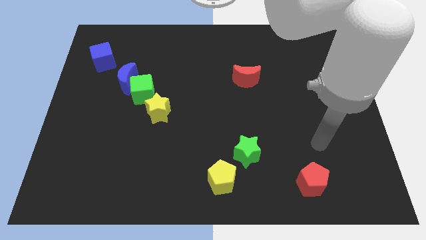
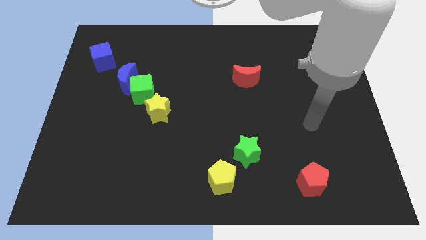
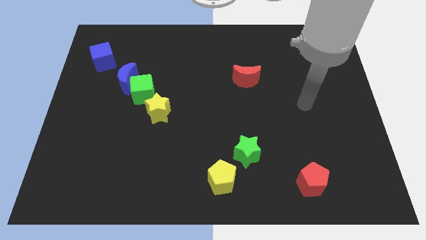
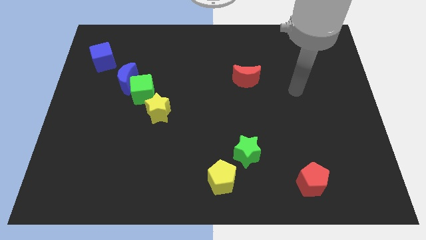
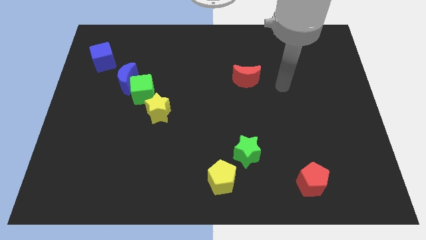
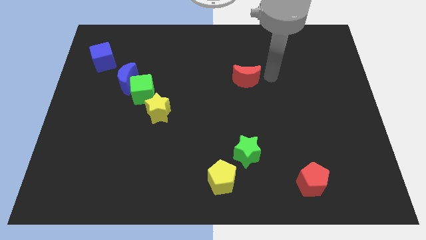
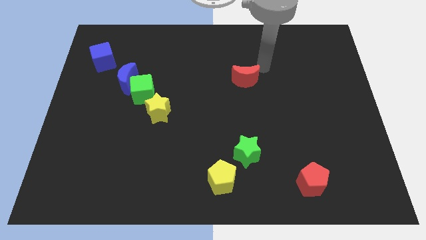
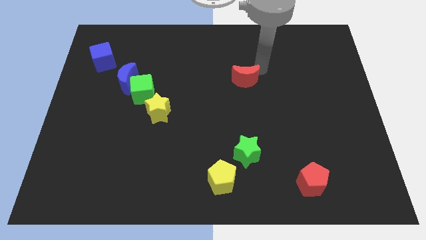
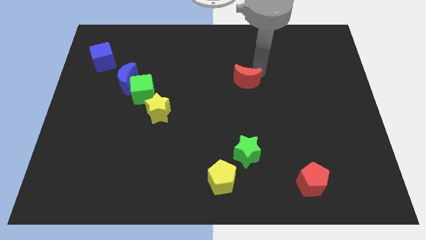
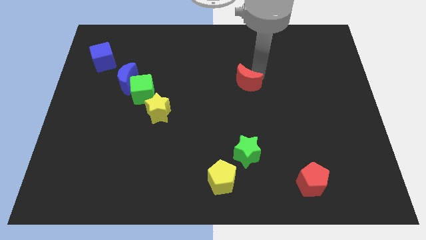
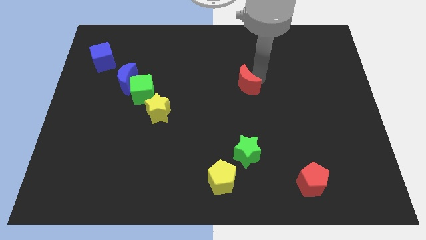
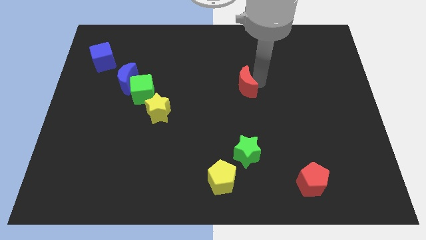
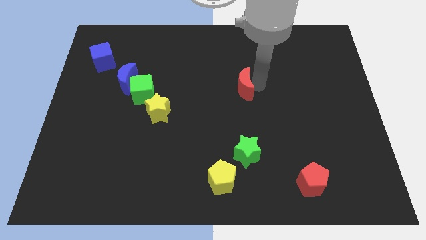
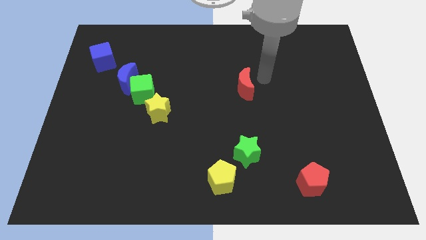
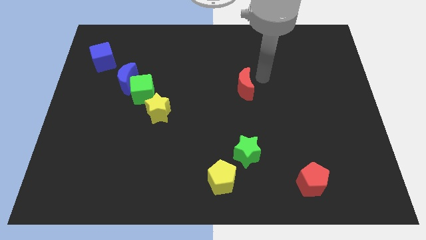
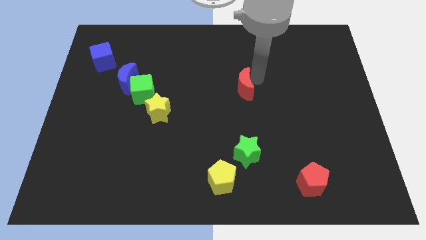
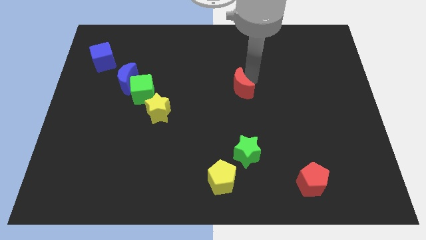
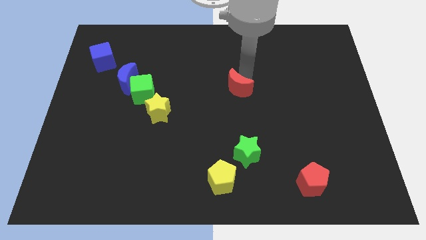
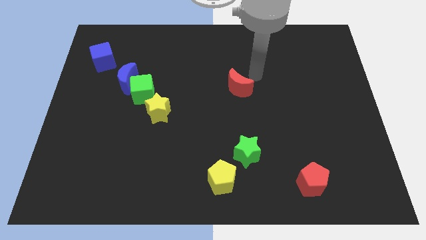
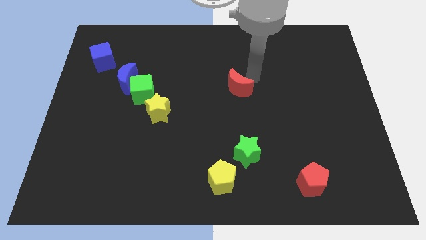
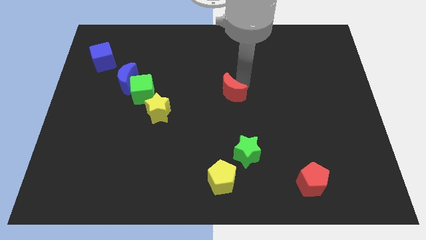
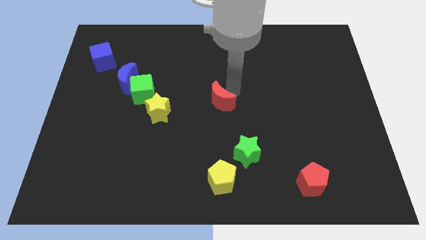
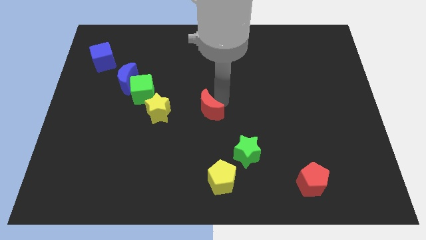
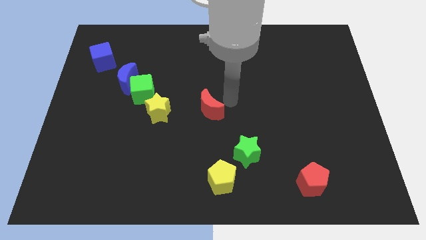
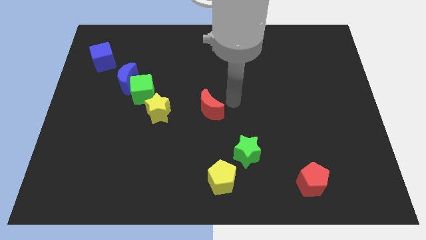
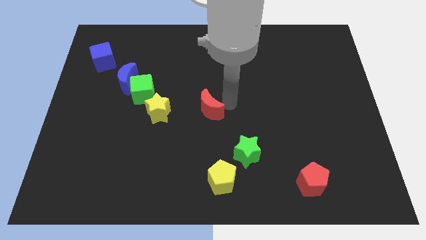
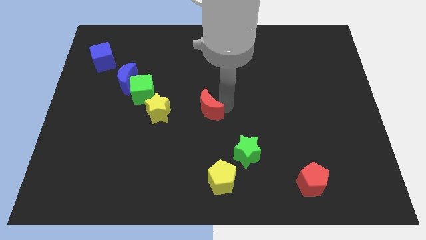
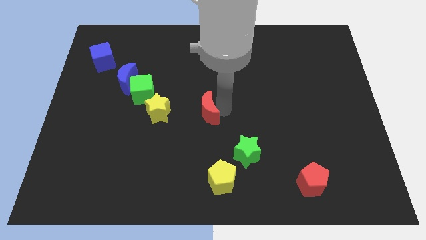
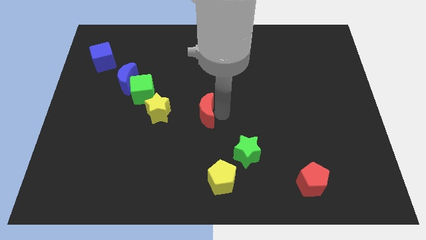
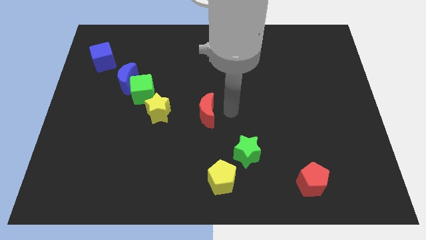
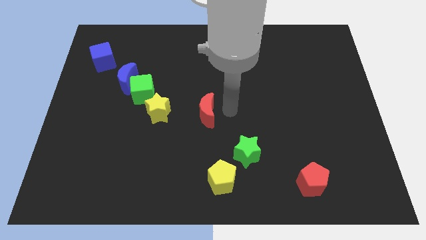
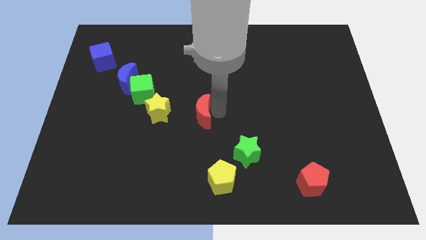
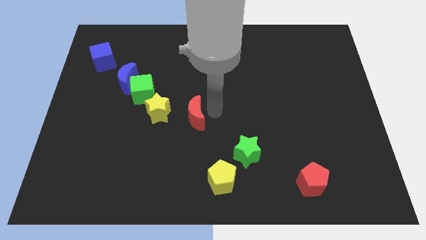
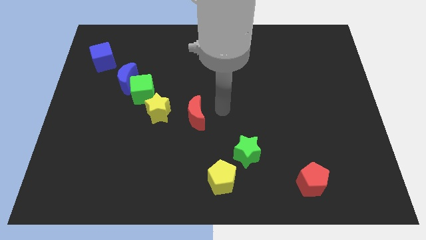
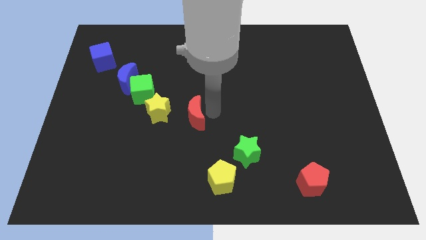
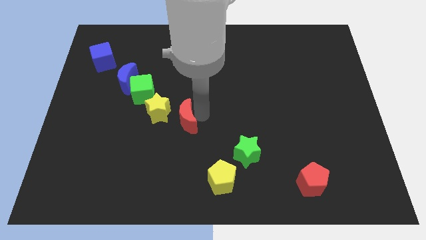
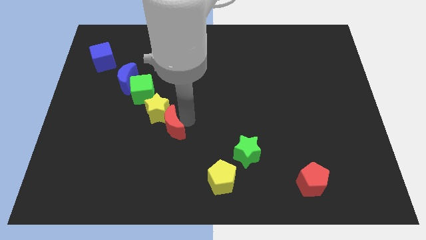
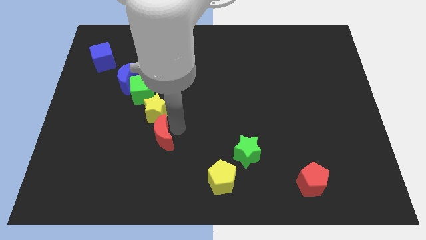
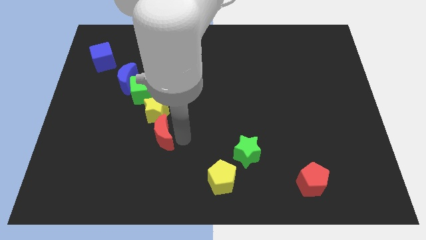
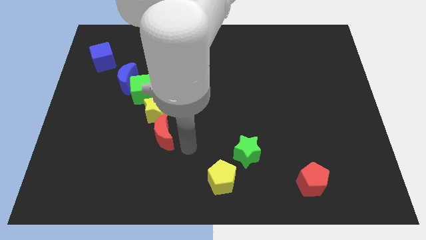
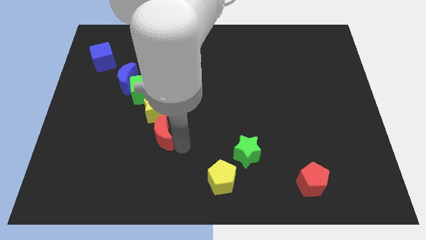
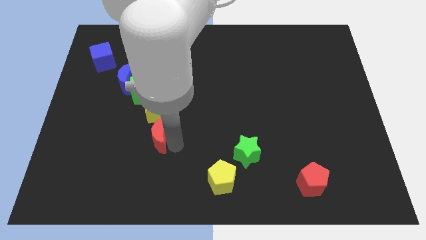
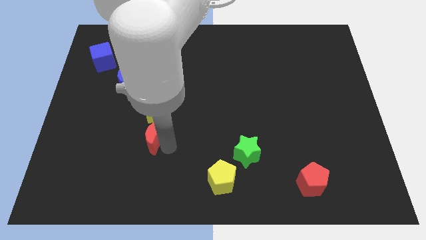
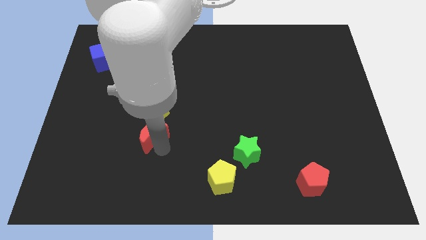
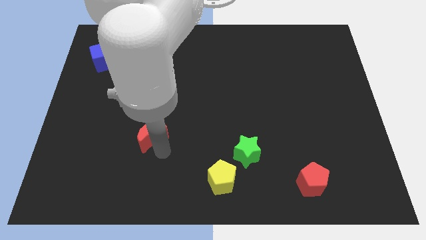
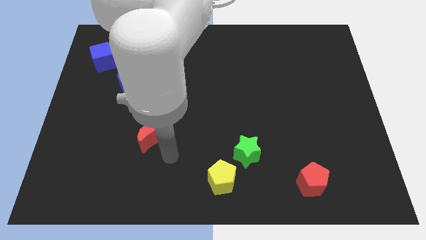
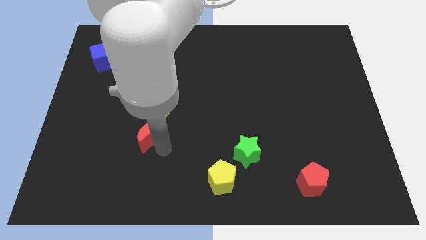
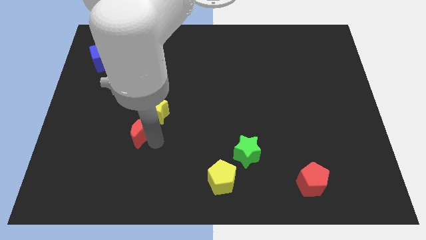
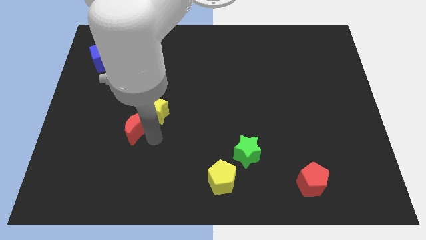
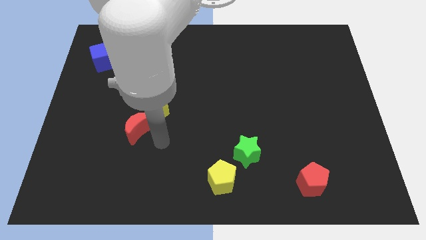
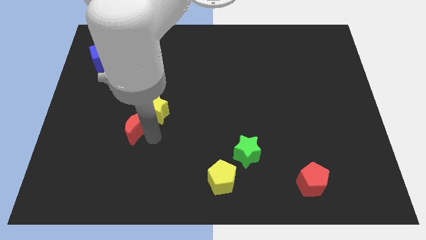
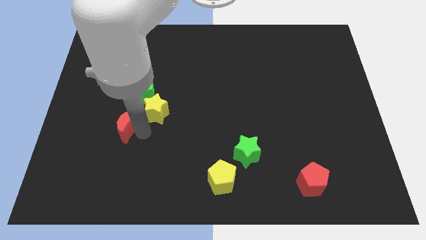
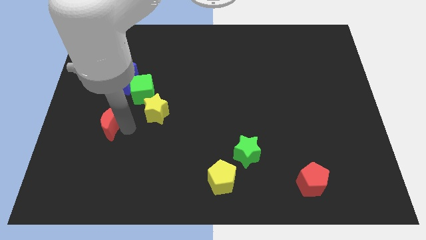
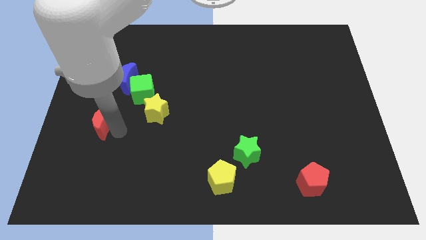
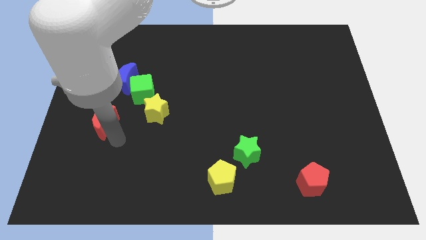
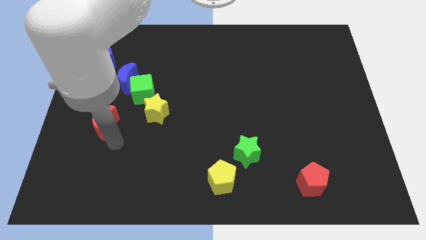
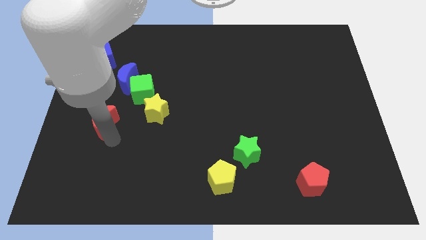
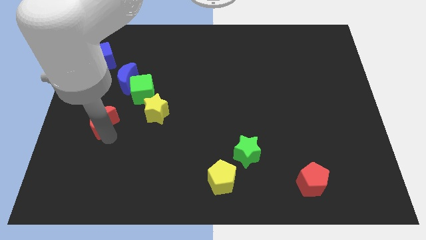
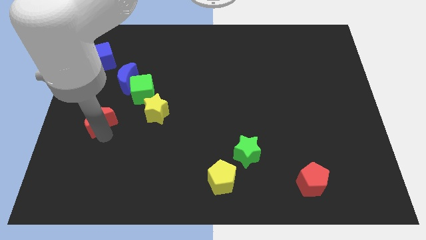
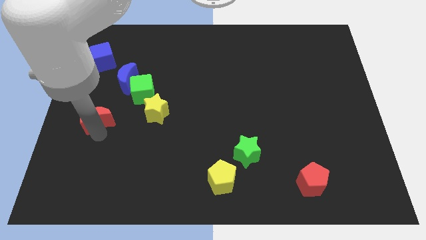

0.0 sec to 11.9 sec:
move the red moon to the left side

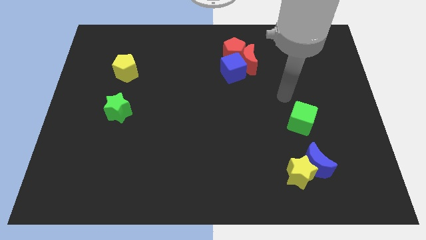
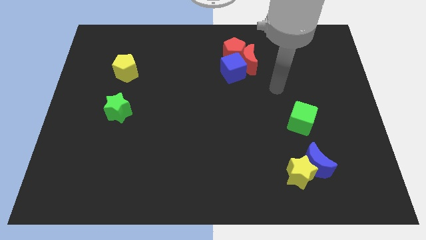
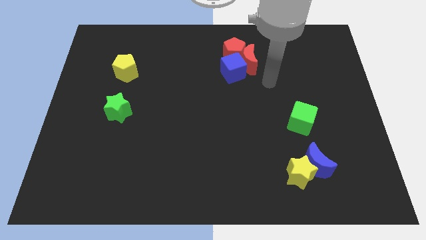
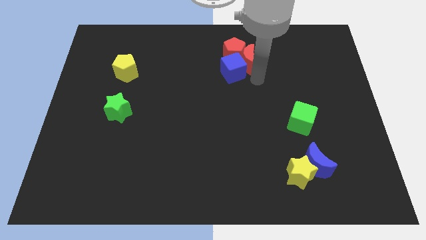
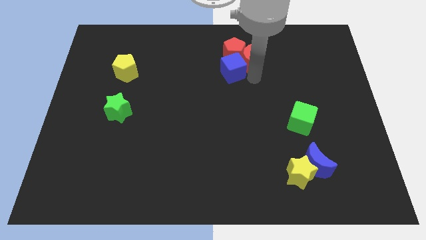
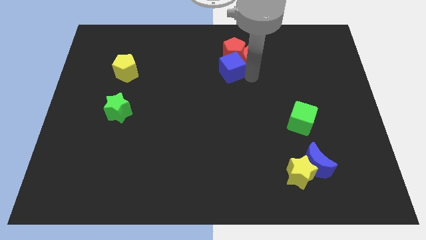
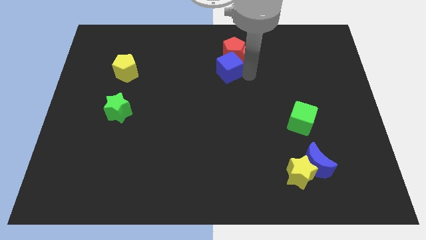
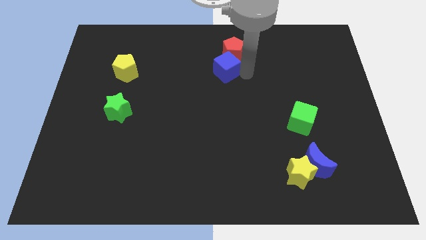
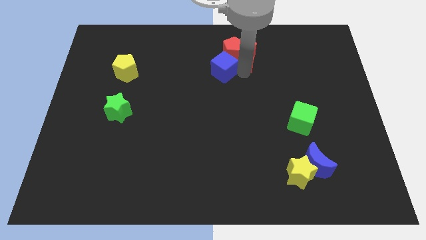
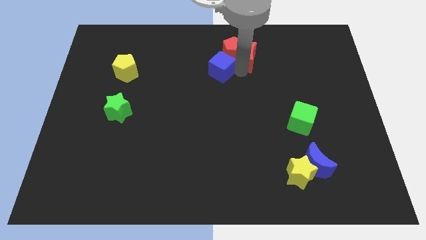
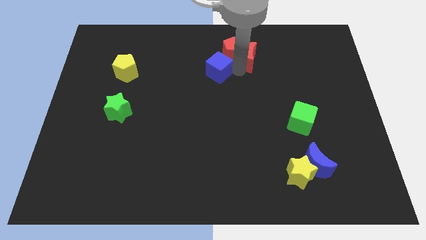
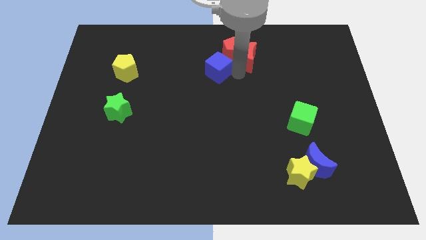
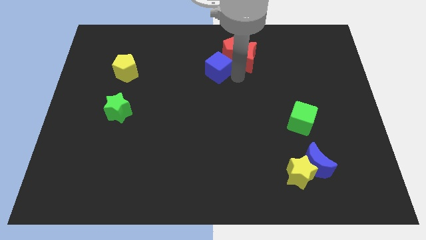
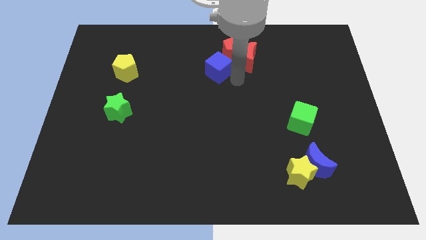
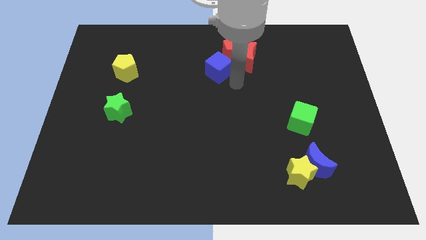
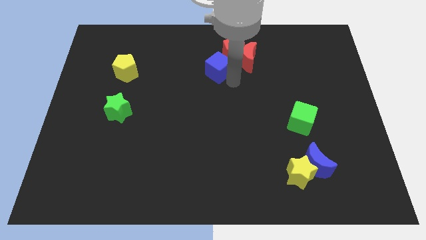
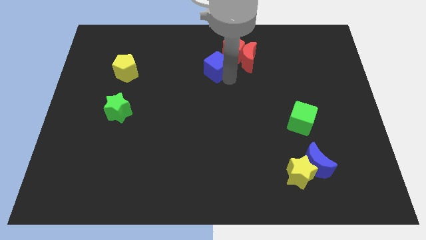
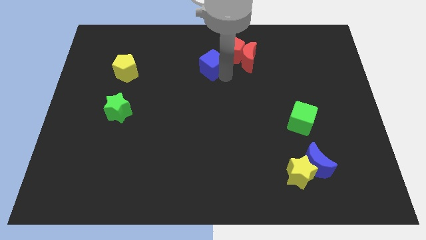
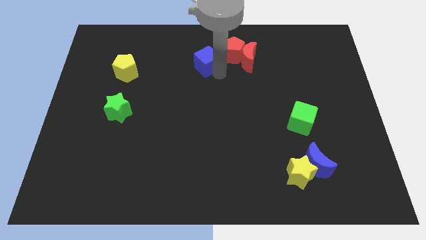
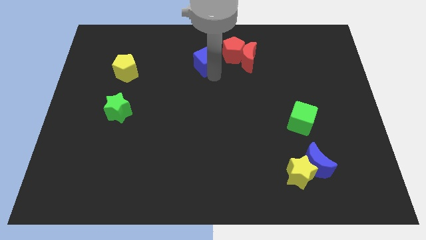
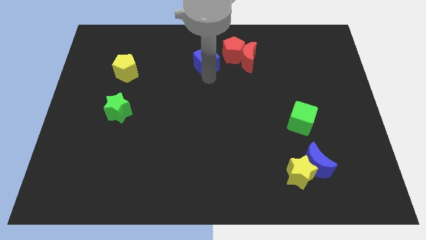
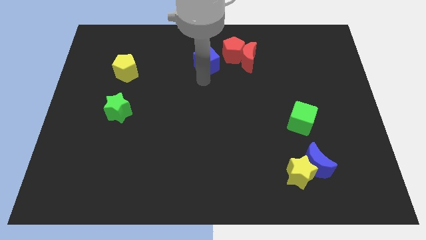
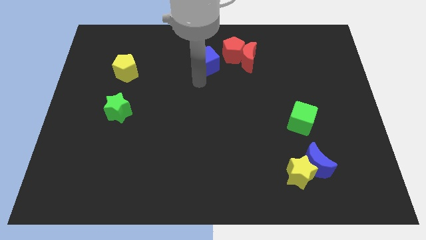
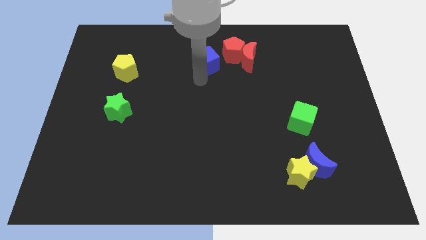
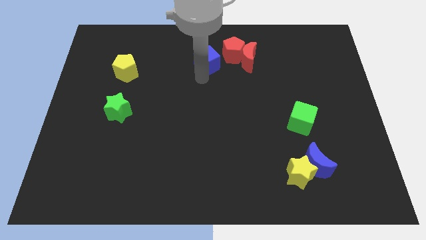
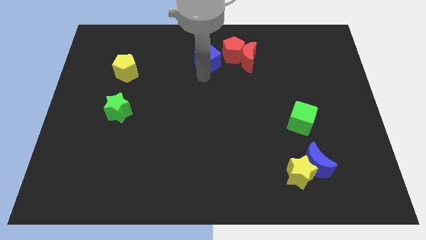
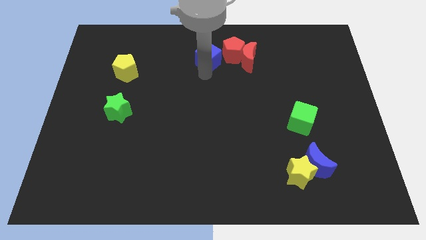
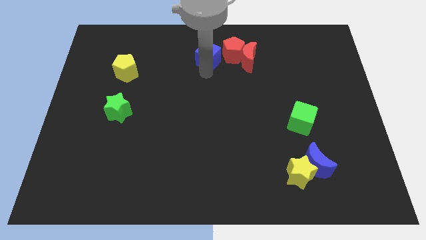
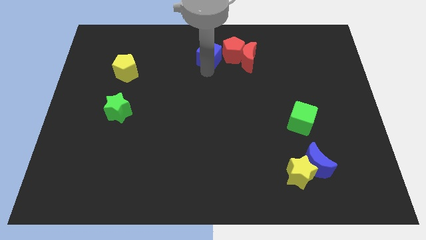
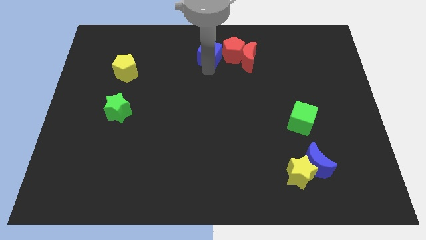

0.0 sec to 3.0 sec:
move the blue cube to the top
